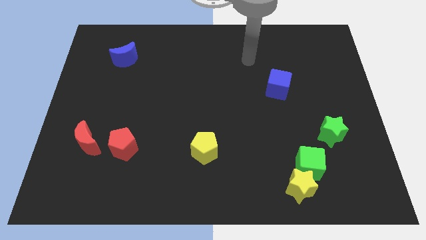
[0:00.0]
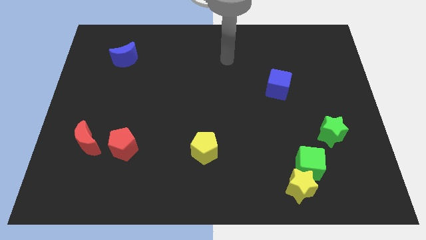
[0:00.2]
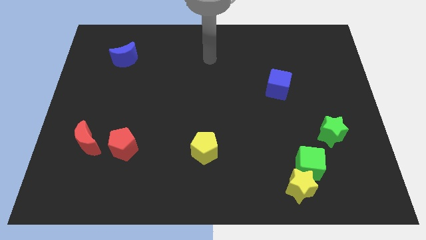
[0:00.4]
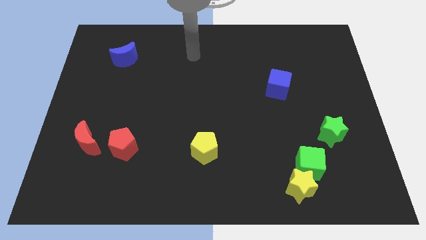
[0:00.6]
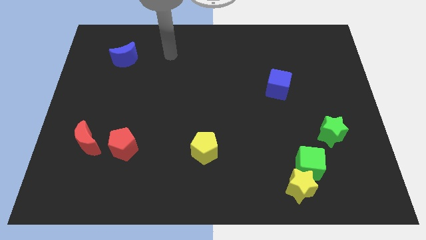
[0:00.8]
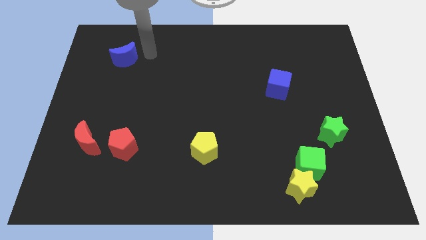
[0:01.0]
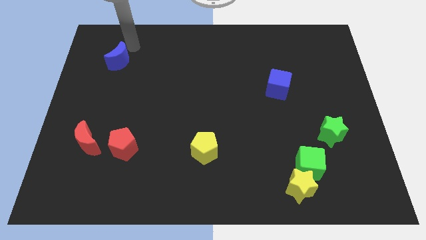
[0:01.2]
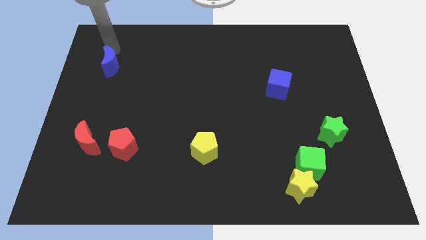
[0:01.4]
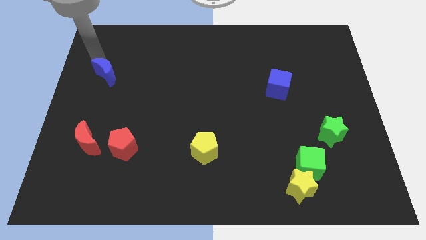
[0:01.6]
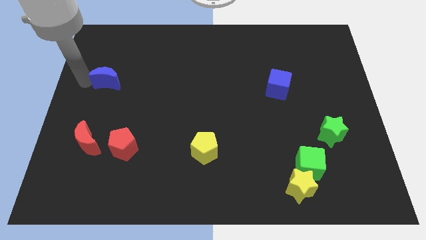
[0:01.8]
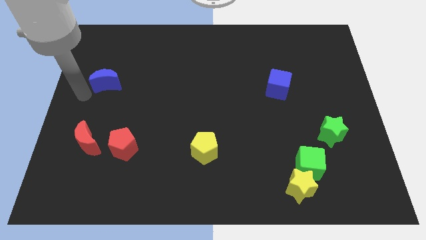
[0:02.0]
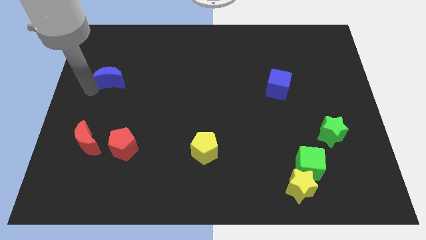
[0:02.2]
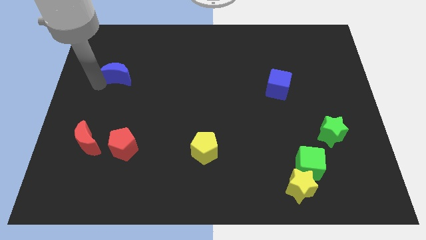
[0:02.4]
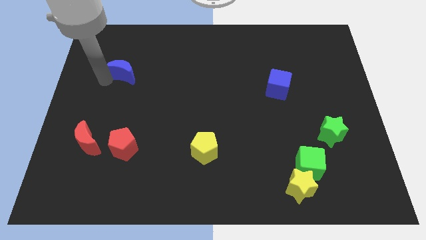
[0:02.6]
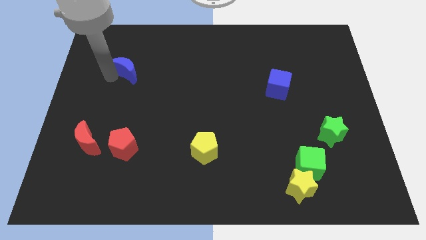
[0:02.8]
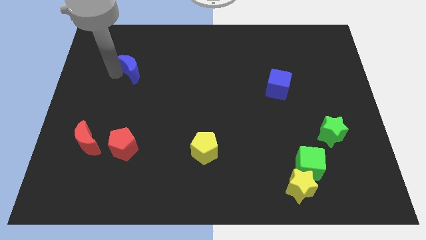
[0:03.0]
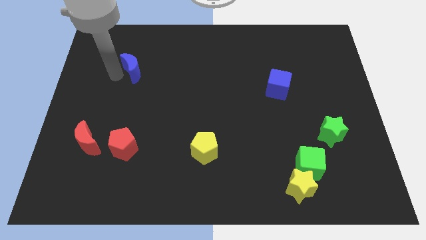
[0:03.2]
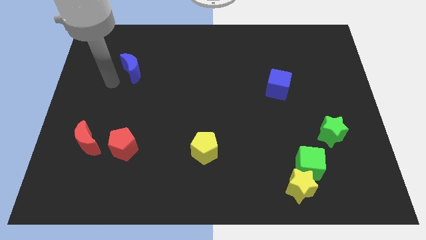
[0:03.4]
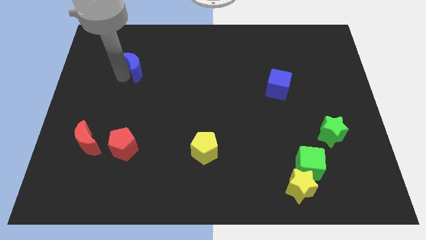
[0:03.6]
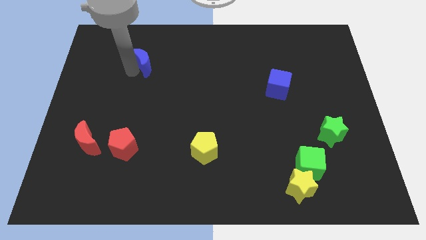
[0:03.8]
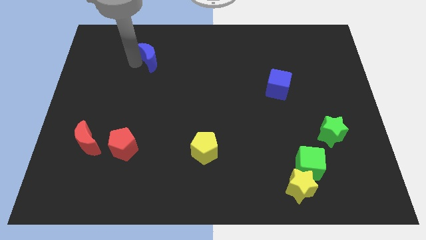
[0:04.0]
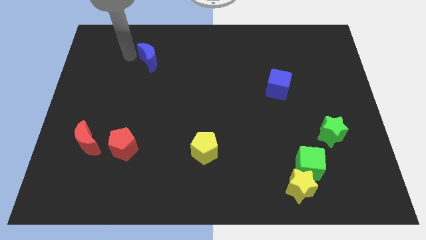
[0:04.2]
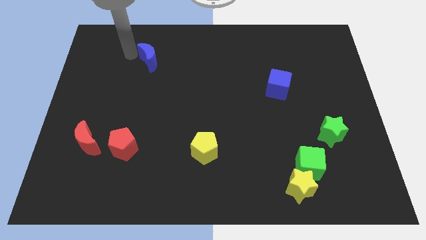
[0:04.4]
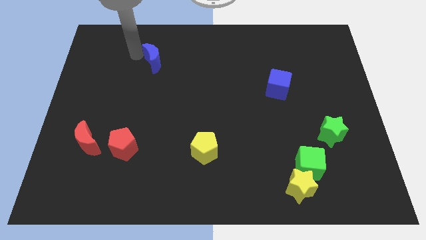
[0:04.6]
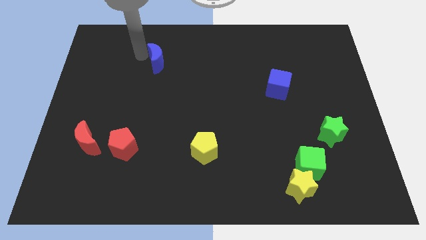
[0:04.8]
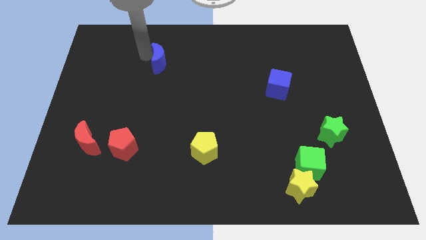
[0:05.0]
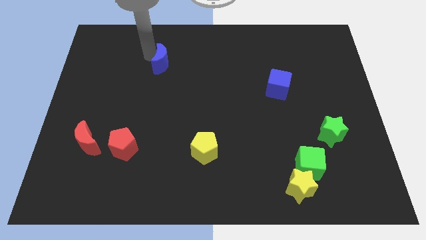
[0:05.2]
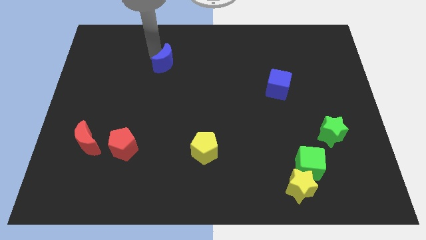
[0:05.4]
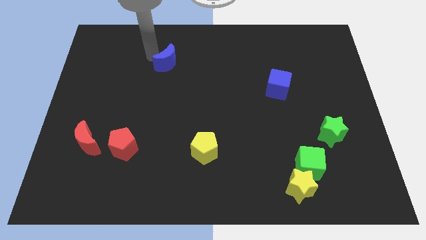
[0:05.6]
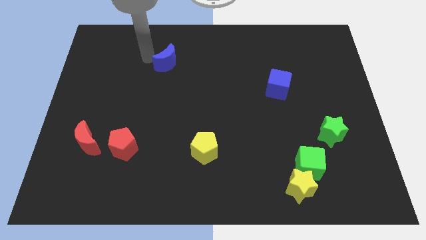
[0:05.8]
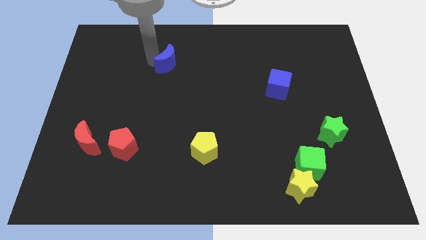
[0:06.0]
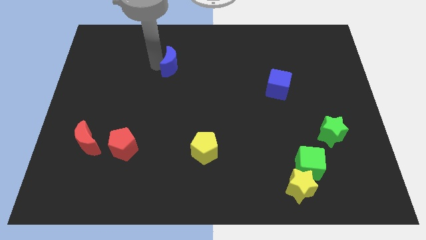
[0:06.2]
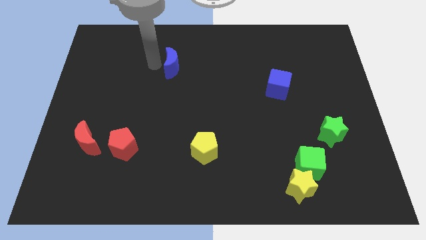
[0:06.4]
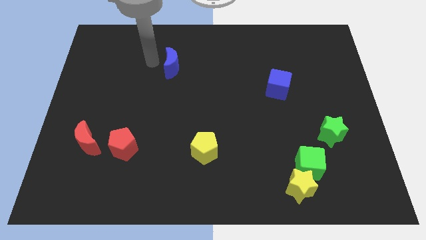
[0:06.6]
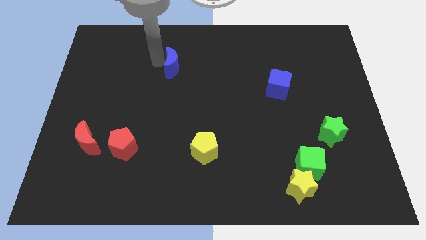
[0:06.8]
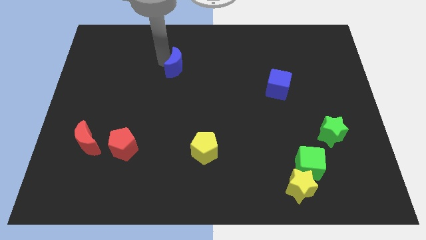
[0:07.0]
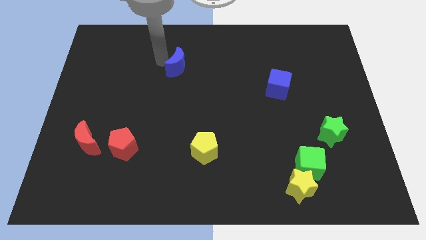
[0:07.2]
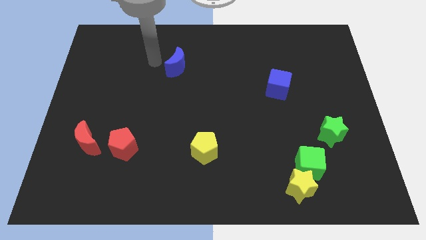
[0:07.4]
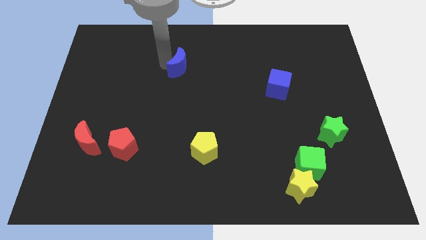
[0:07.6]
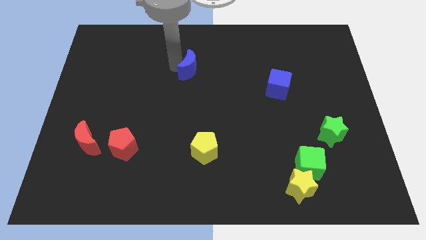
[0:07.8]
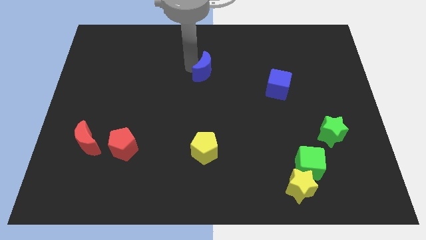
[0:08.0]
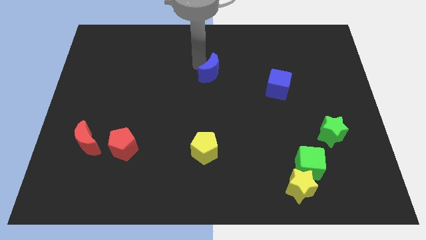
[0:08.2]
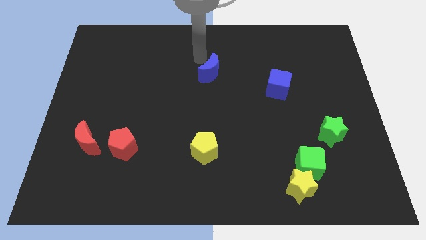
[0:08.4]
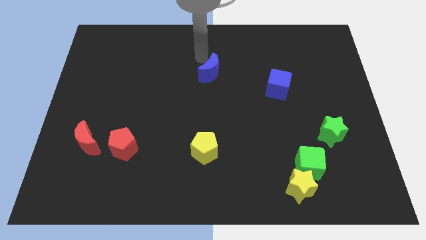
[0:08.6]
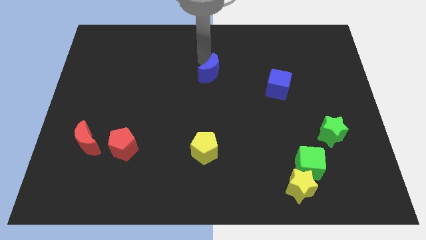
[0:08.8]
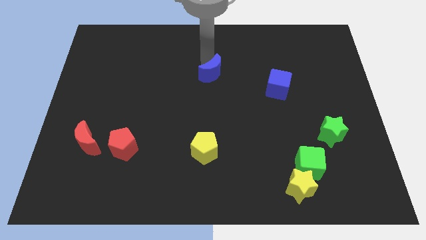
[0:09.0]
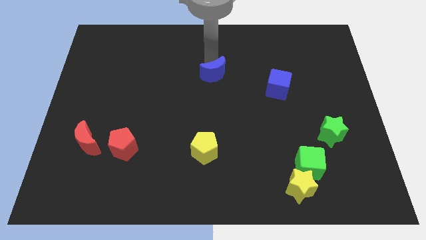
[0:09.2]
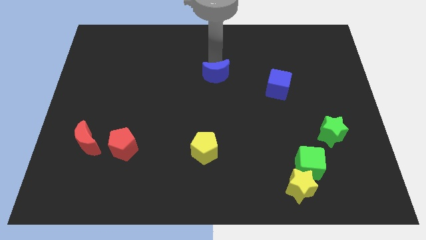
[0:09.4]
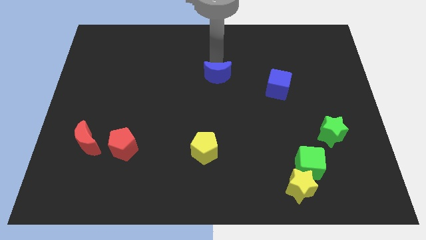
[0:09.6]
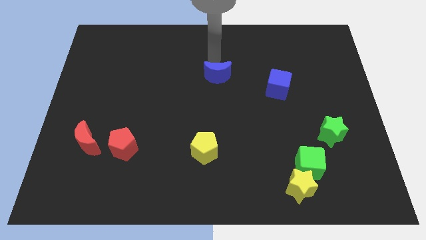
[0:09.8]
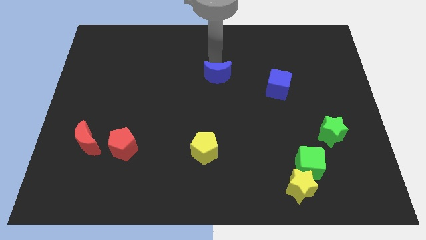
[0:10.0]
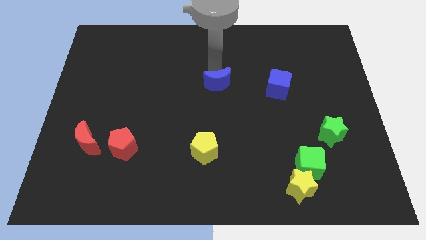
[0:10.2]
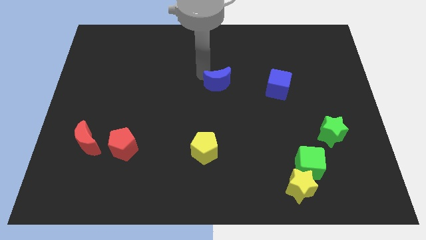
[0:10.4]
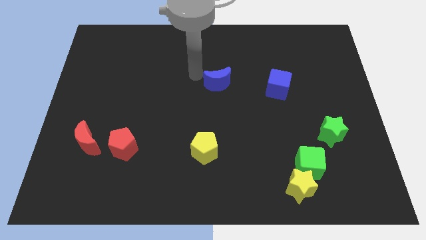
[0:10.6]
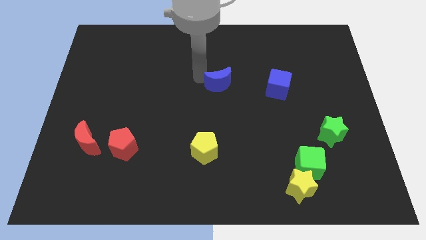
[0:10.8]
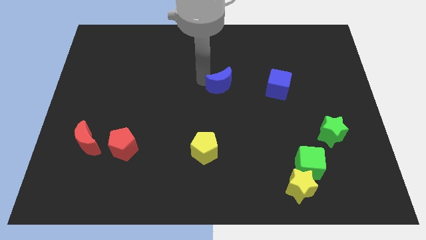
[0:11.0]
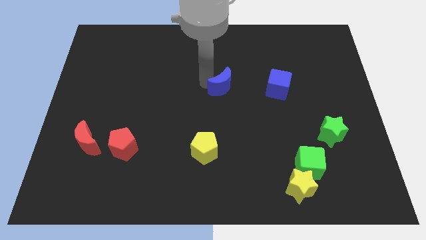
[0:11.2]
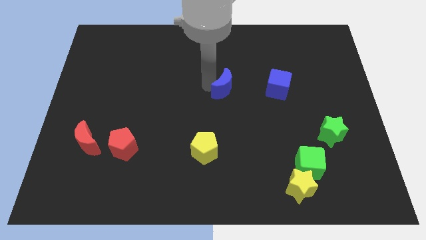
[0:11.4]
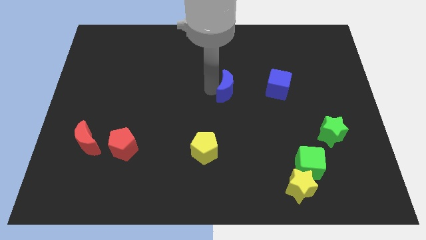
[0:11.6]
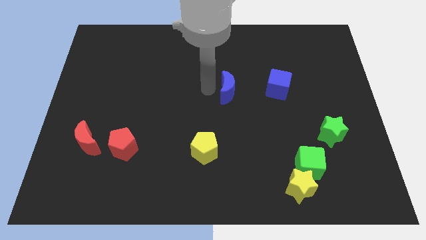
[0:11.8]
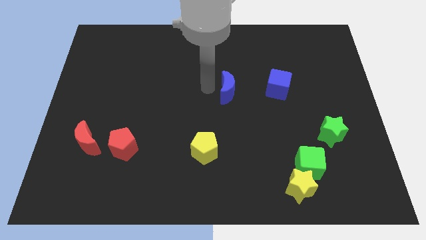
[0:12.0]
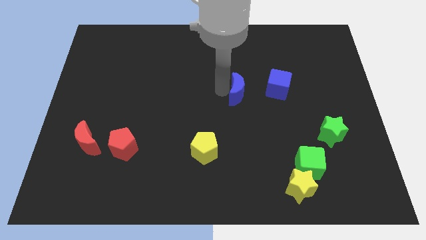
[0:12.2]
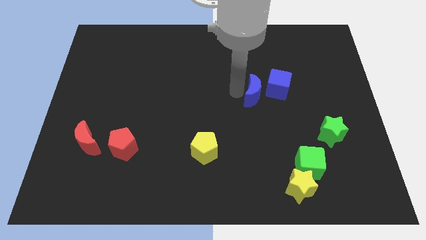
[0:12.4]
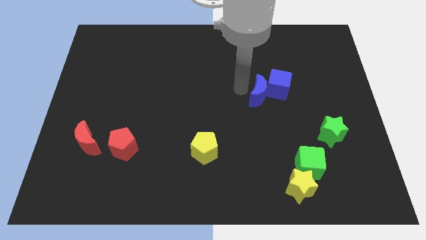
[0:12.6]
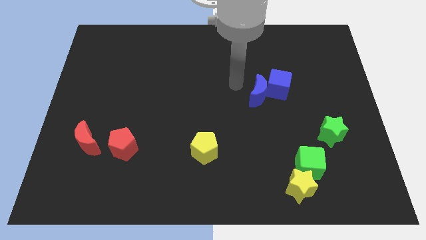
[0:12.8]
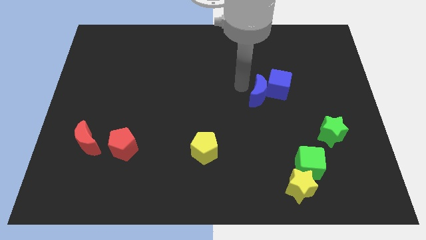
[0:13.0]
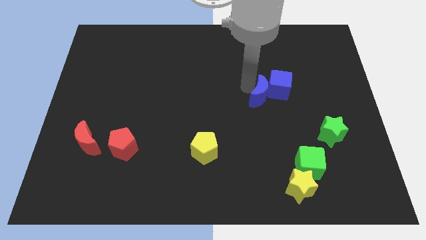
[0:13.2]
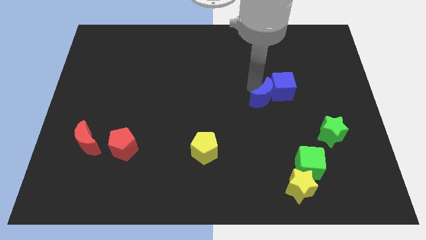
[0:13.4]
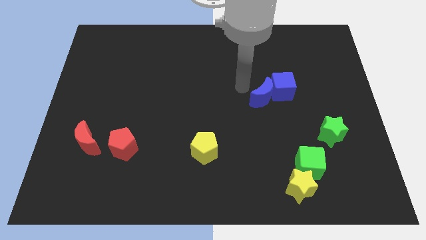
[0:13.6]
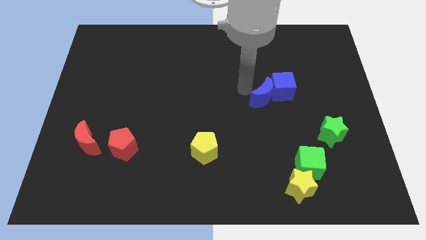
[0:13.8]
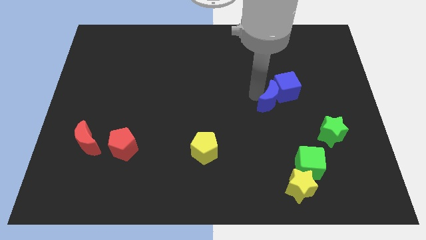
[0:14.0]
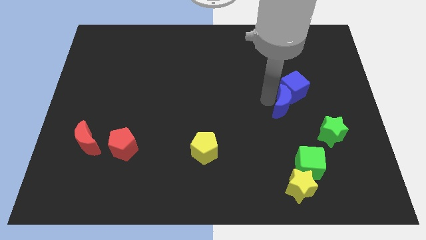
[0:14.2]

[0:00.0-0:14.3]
move the blue moon to the top left side of the green star
